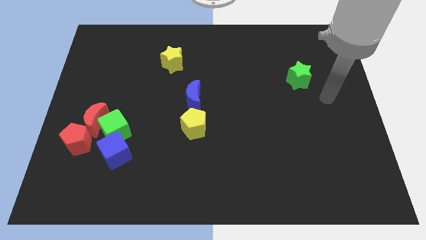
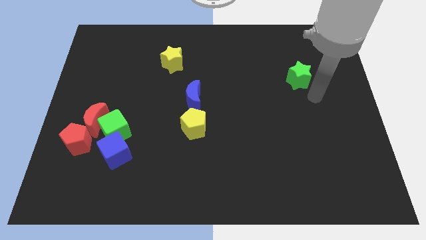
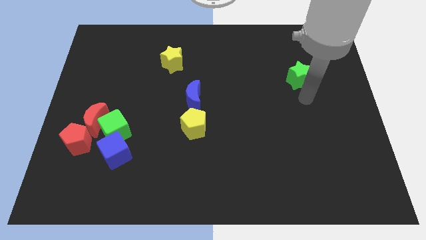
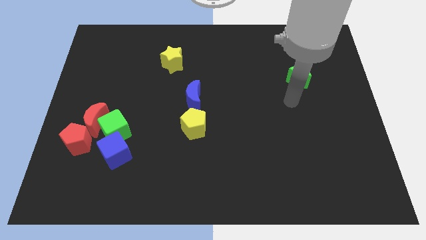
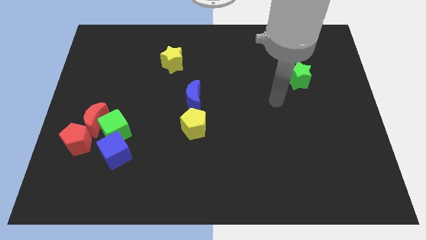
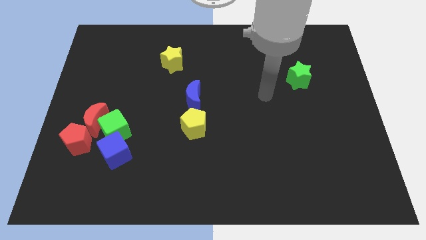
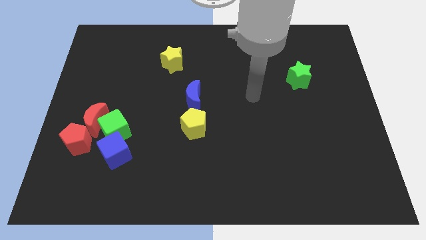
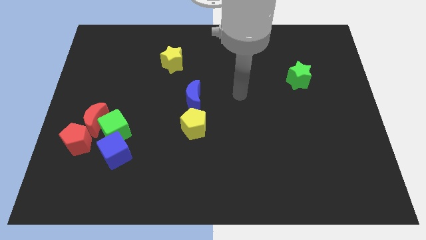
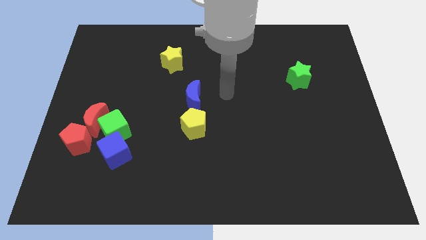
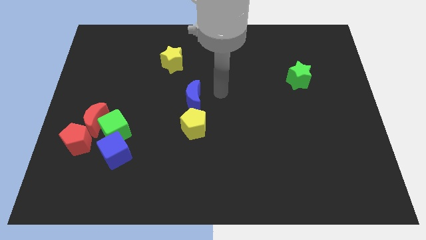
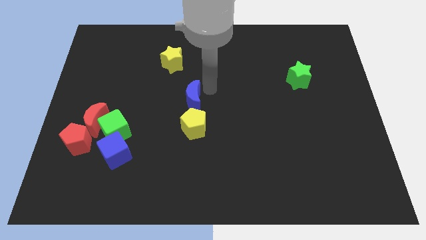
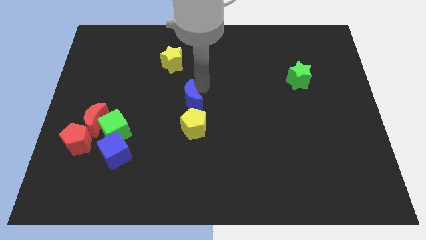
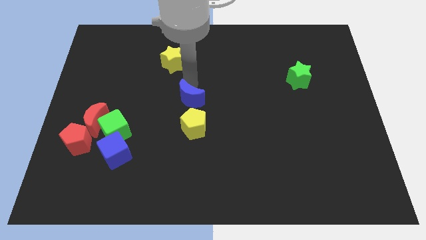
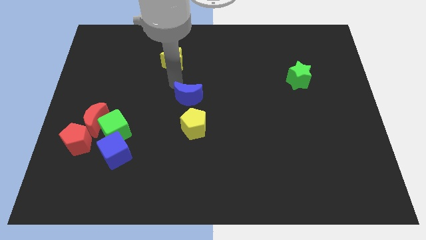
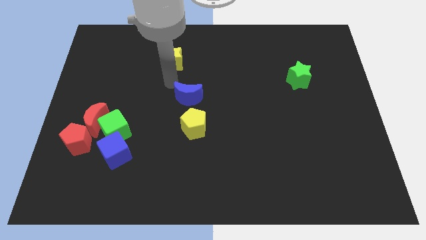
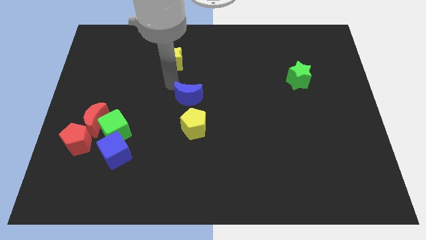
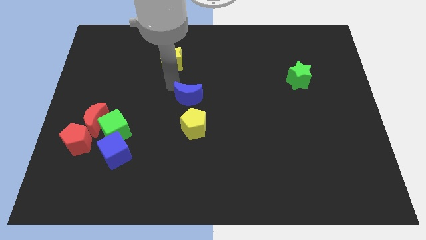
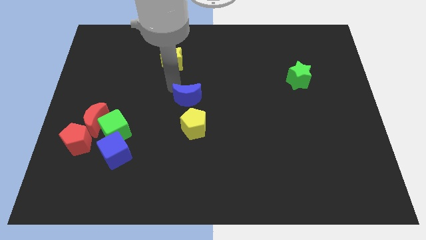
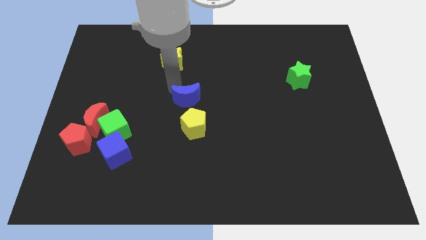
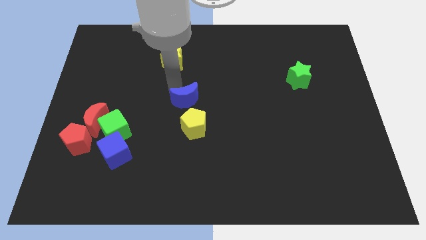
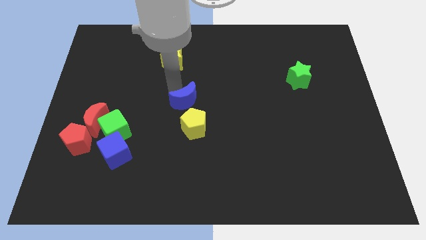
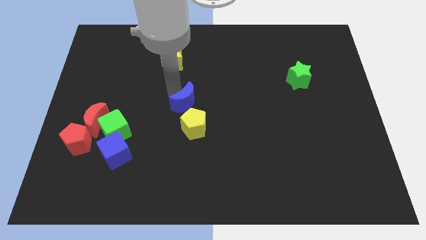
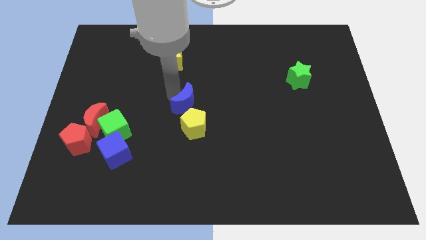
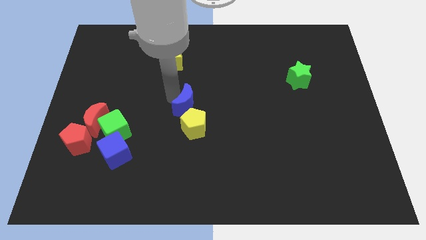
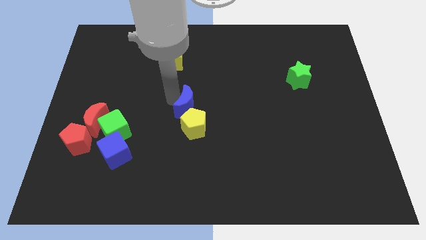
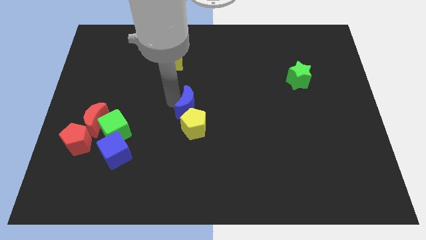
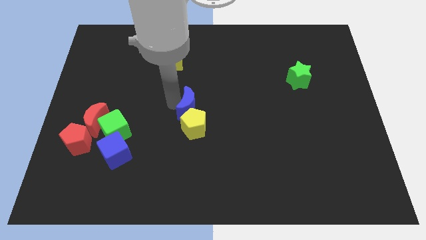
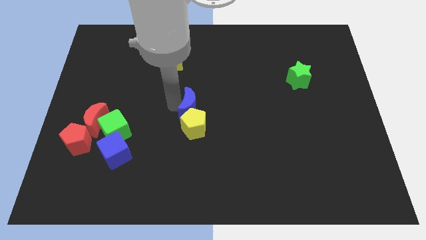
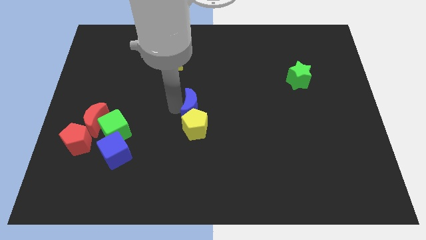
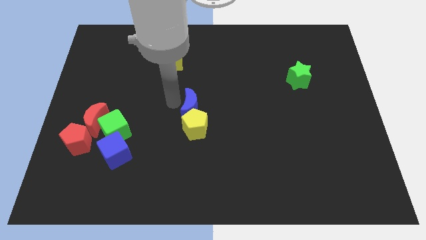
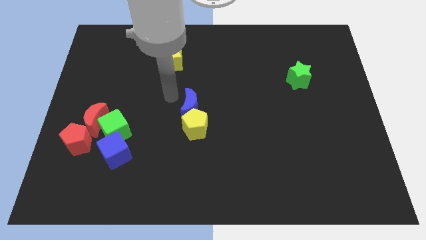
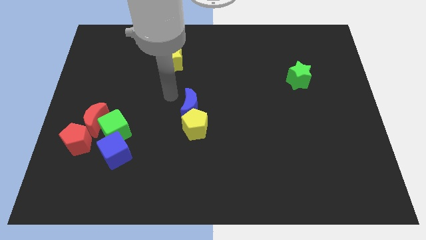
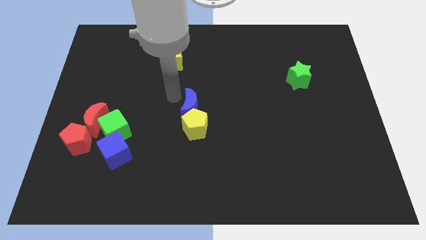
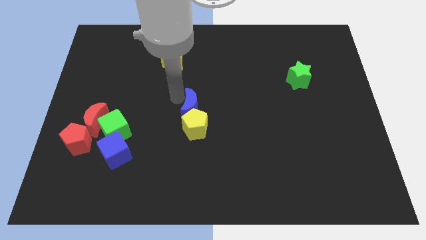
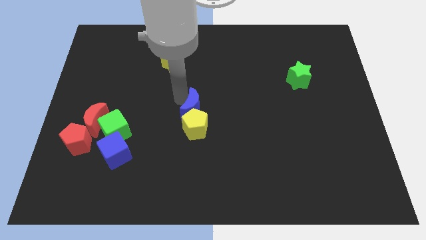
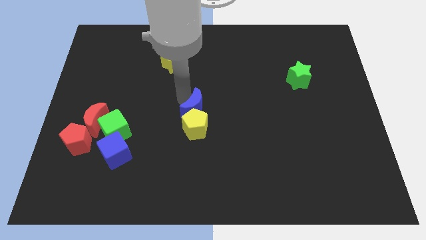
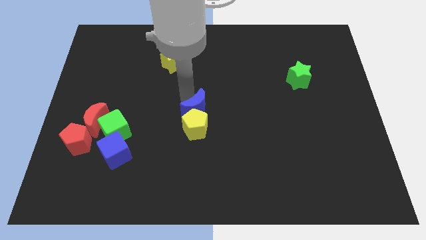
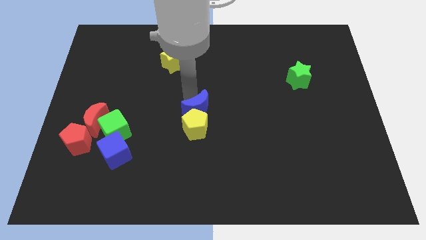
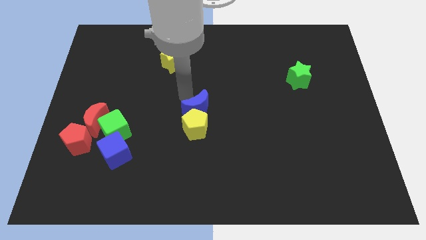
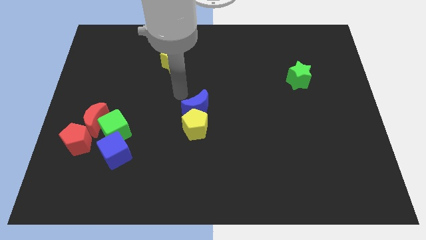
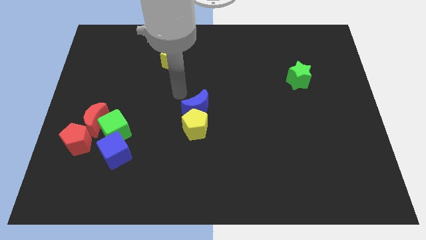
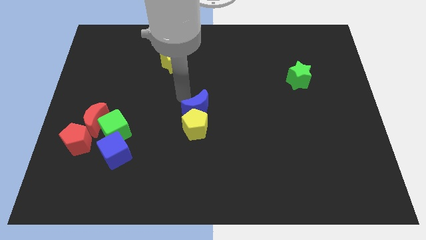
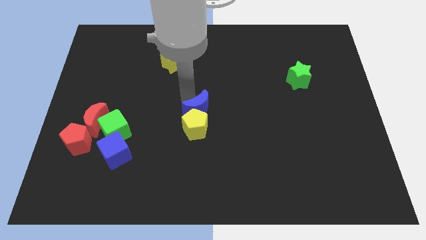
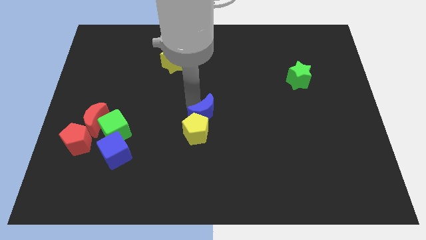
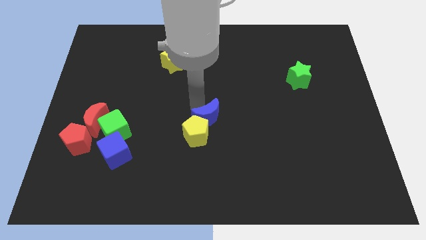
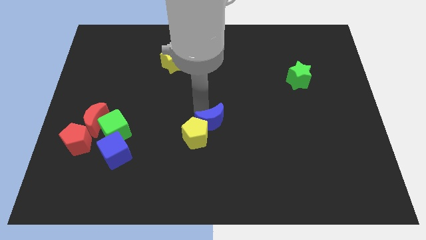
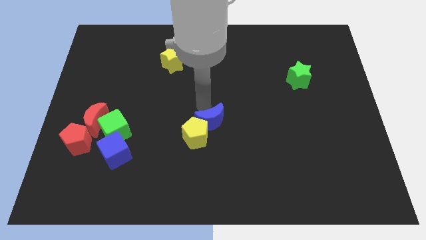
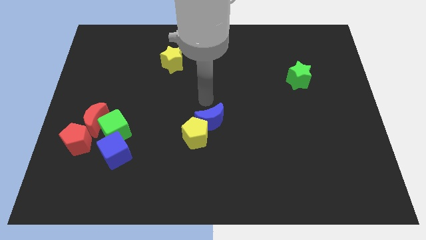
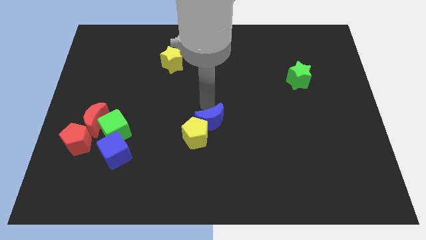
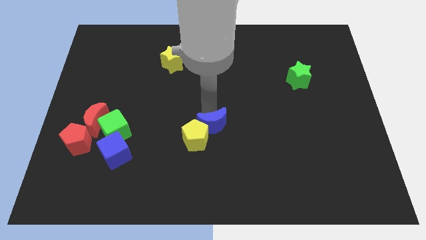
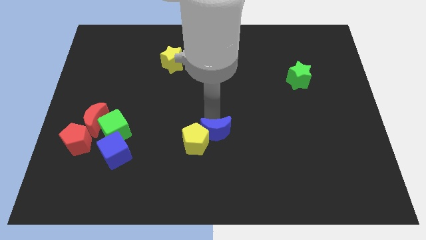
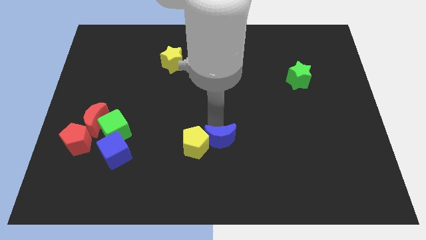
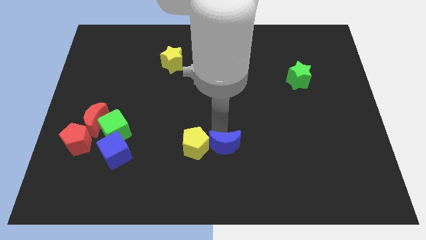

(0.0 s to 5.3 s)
slide the blue moon to the bottom right of the yellow pentagon

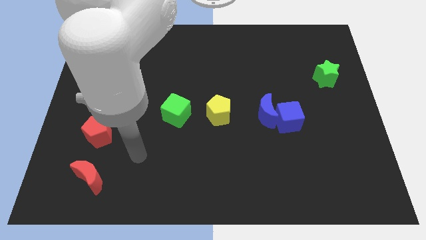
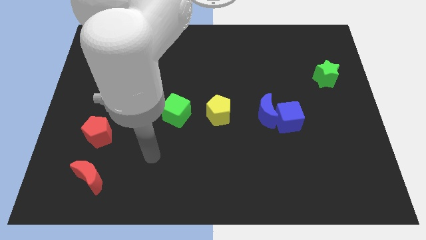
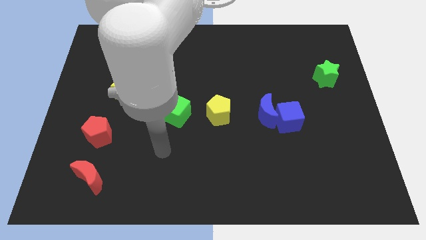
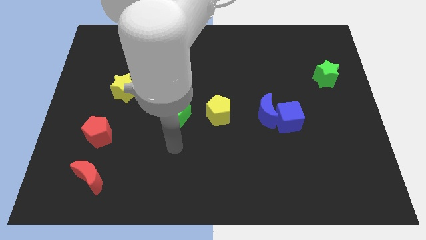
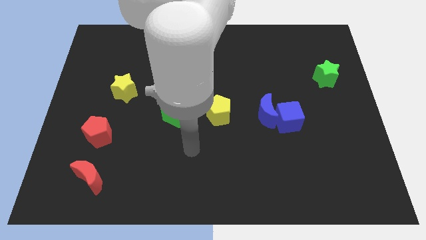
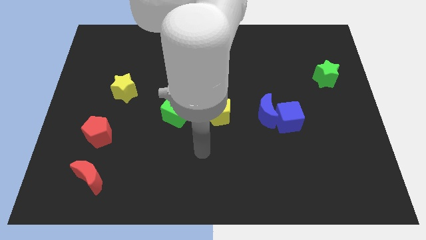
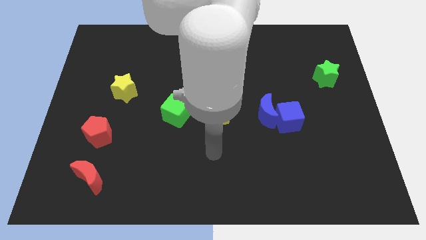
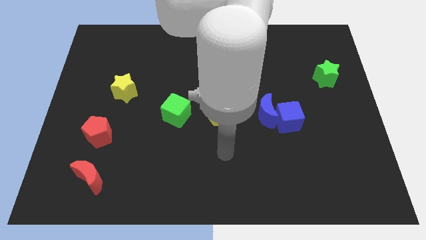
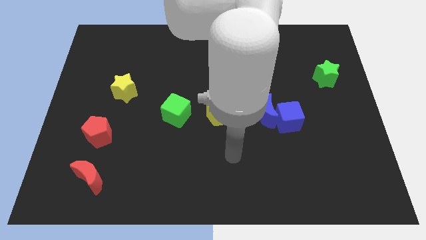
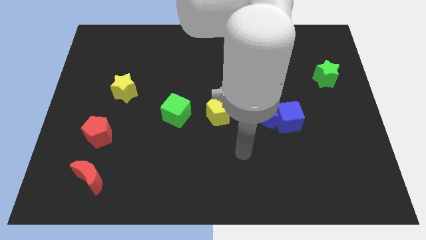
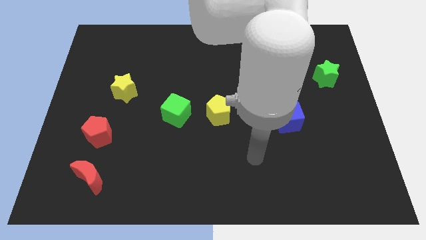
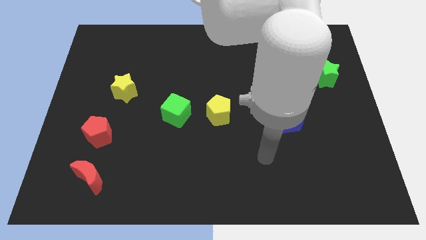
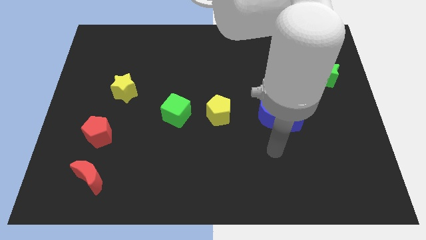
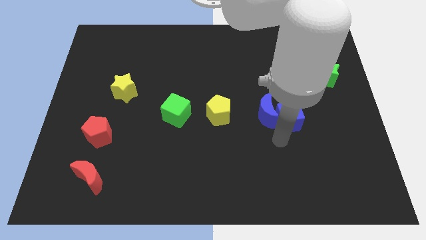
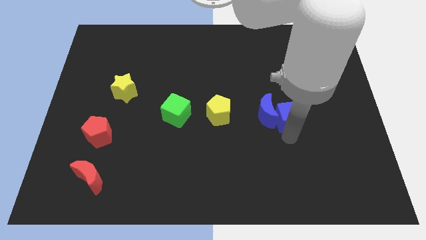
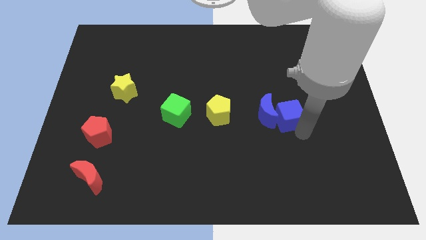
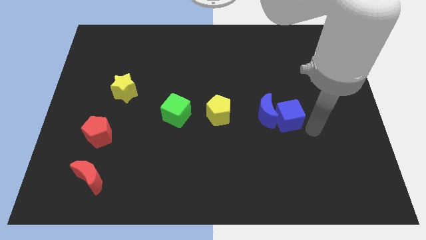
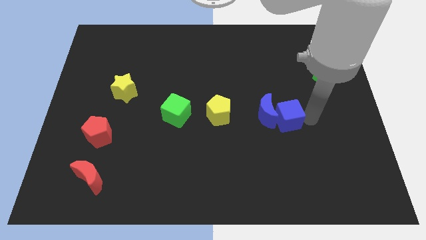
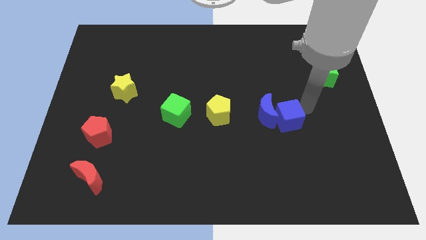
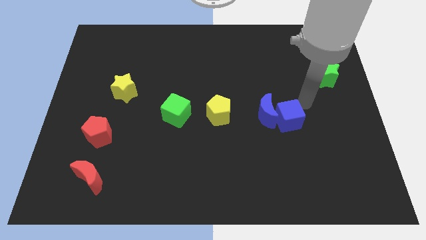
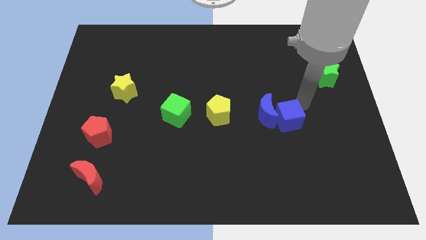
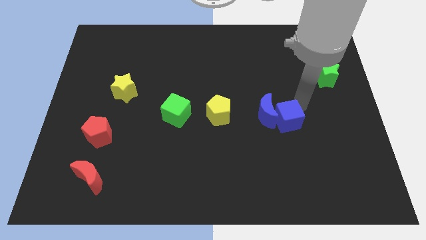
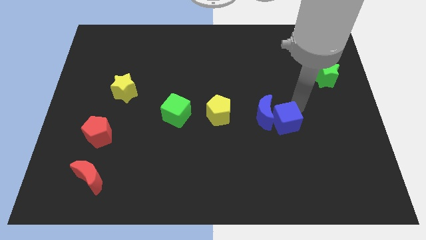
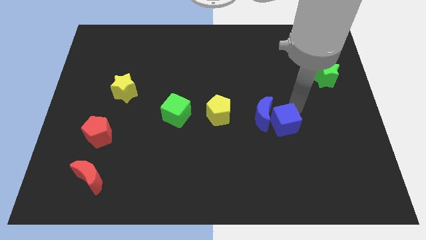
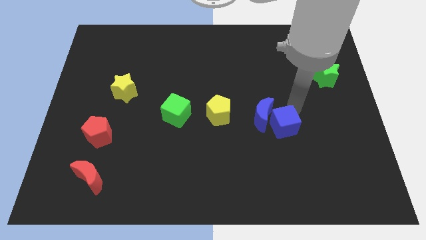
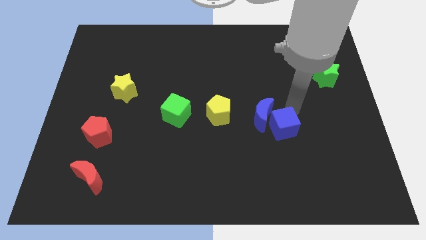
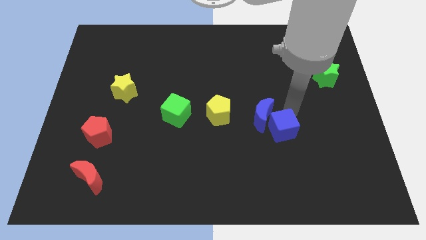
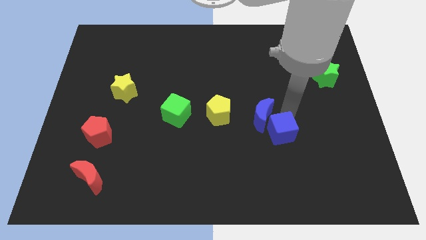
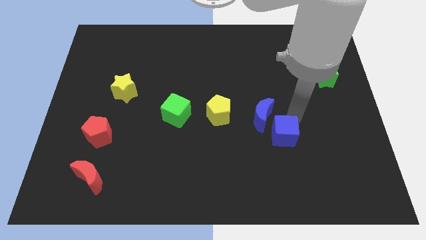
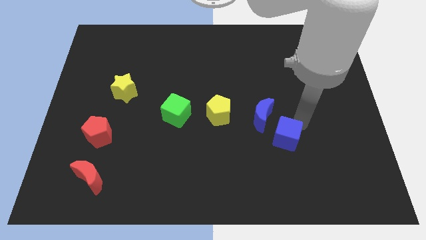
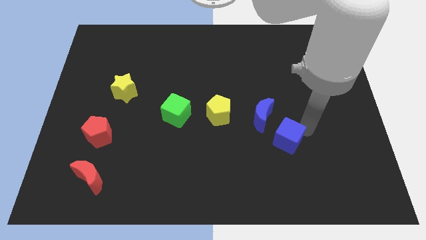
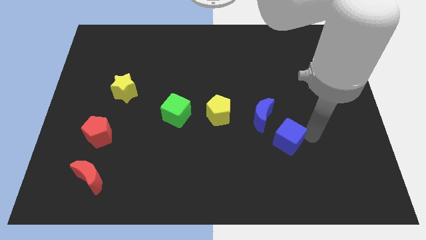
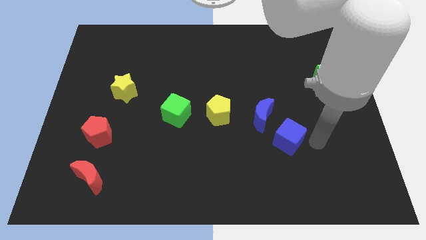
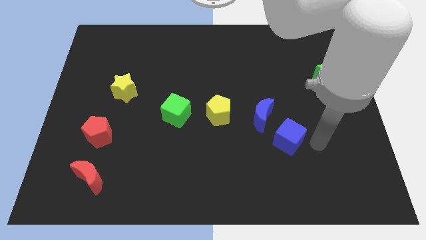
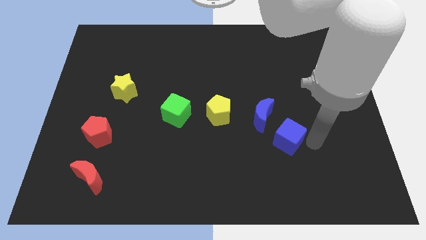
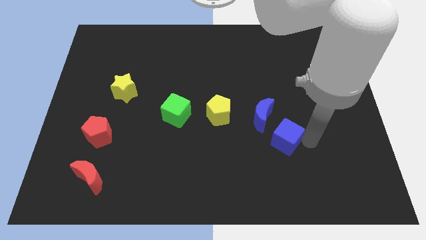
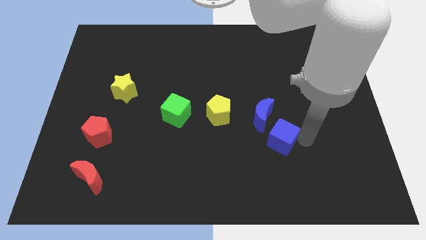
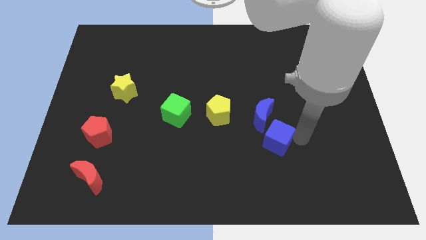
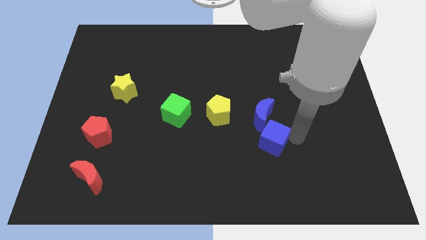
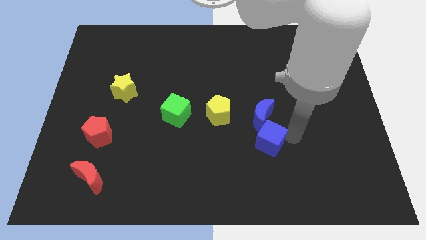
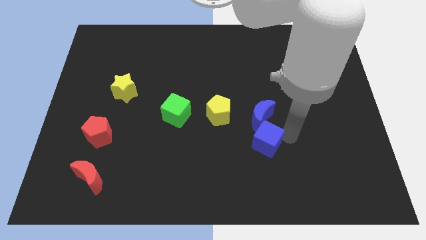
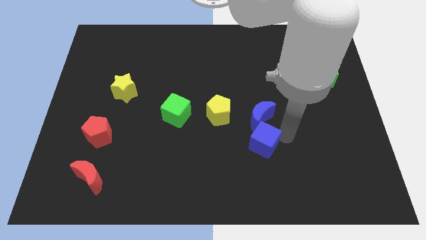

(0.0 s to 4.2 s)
put the blue cube to the bottom right side of the yellow pentagon
